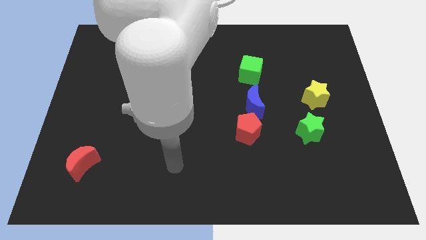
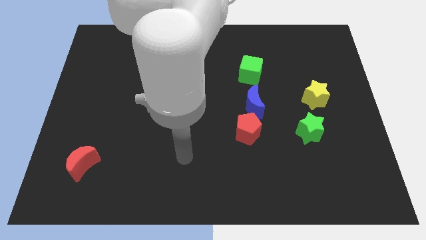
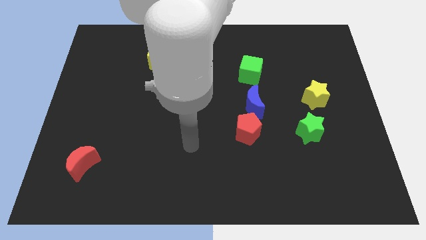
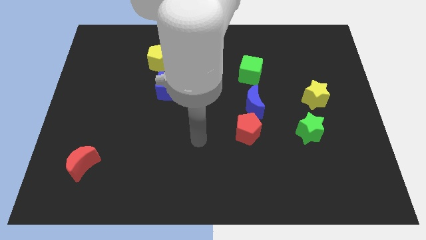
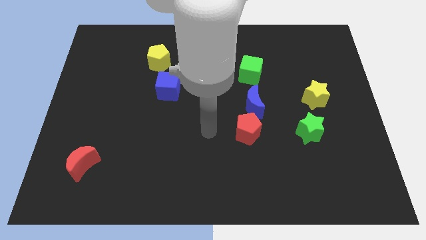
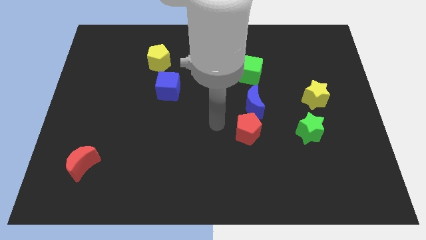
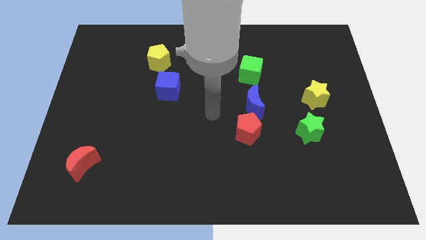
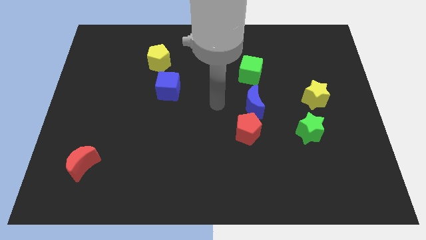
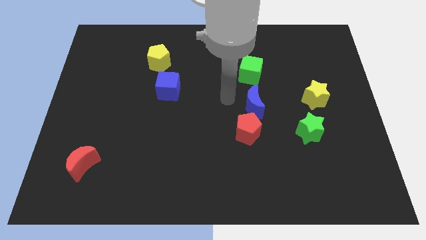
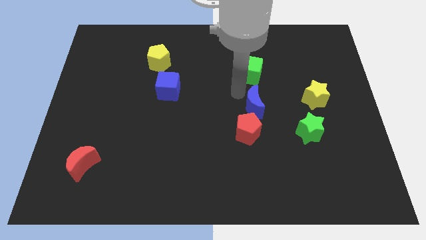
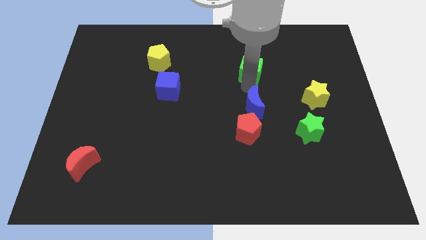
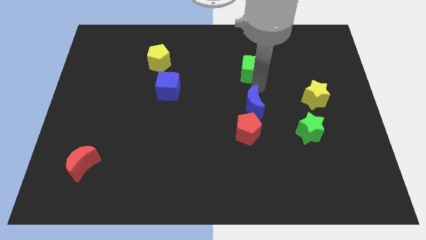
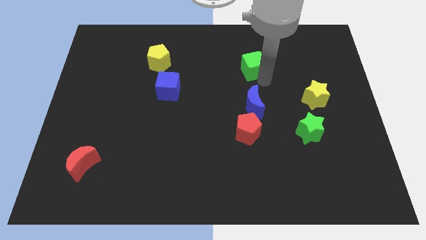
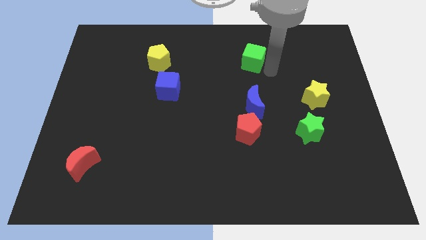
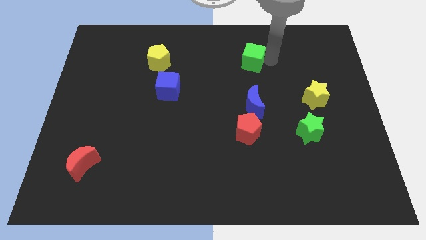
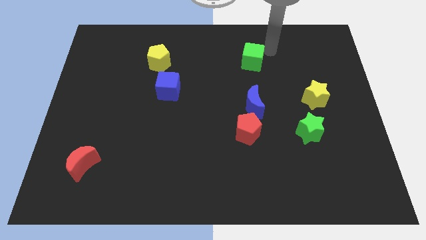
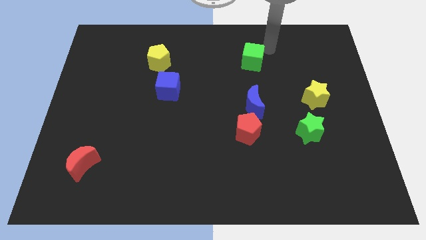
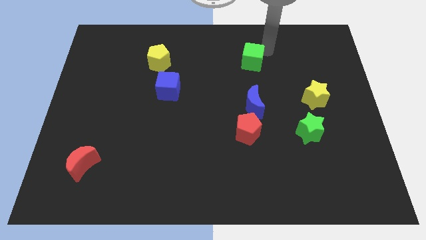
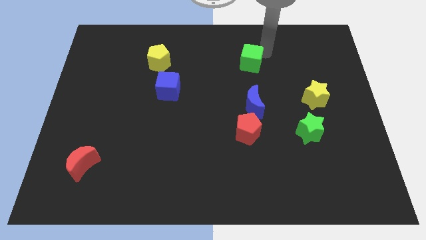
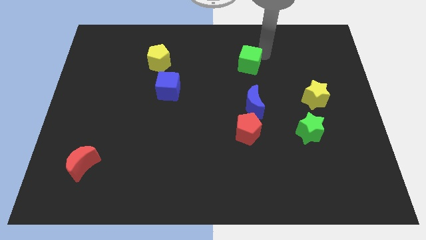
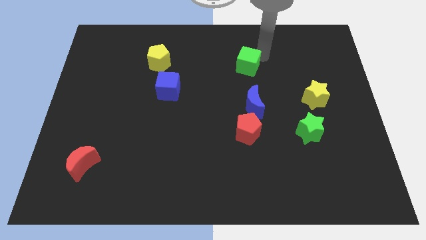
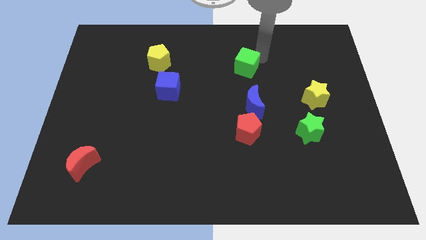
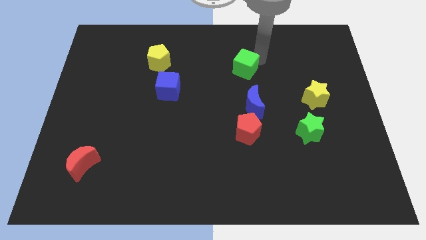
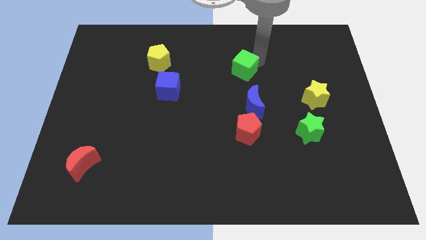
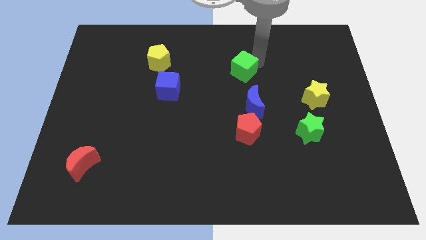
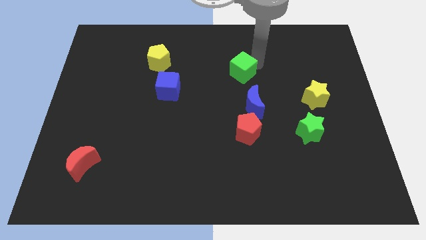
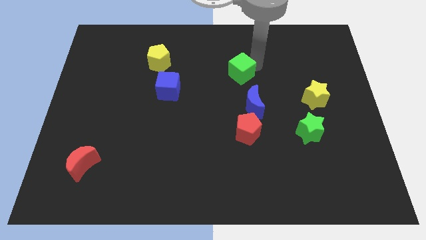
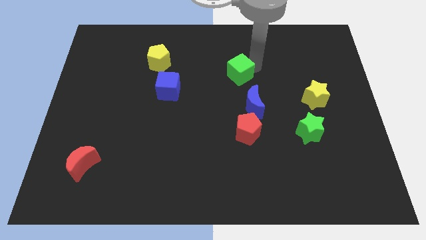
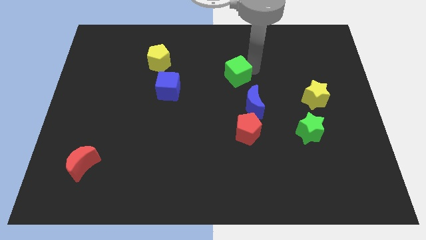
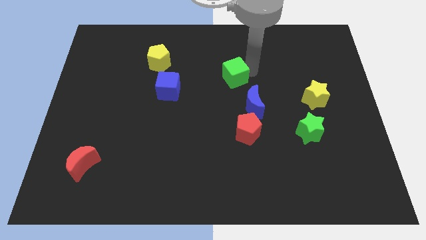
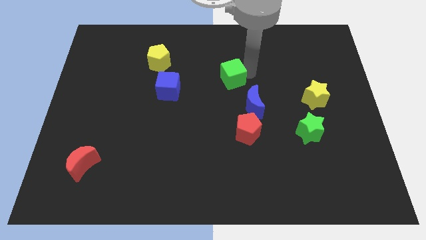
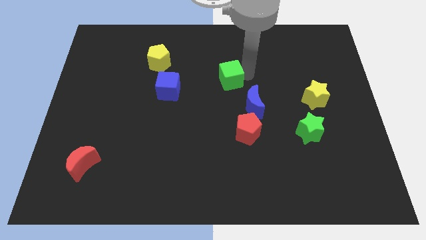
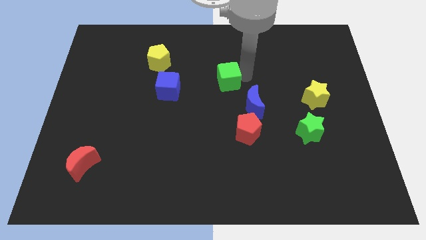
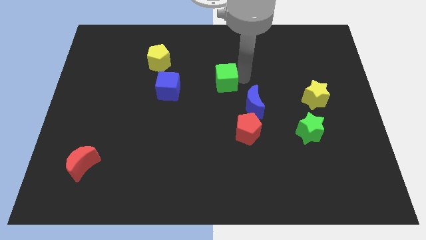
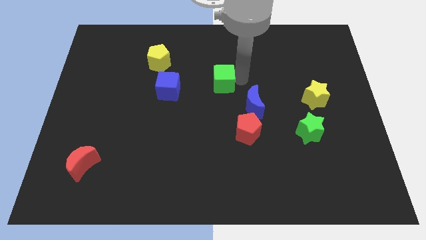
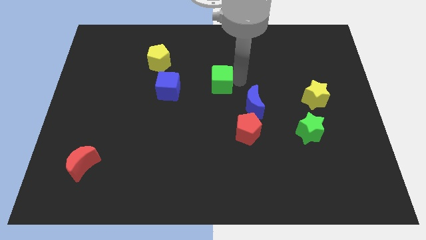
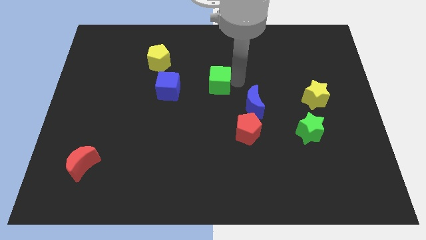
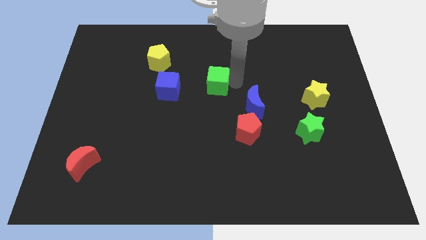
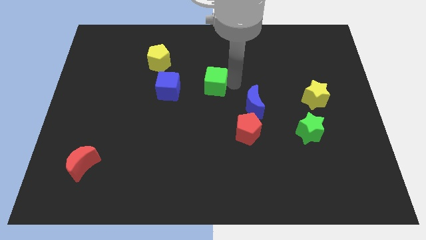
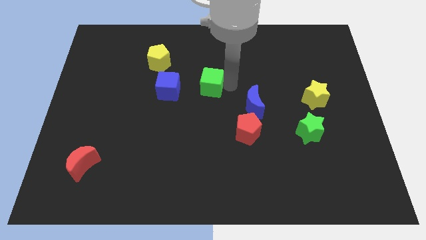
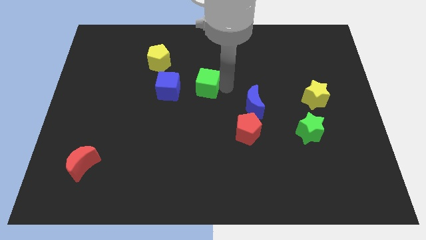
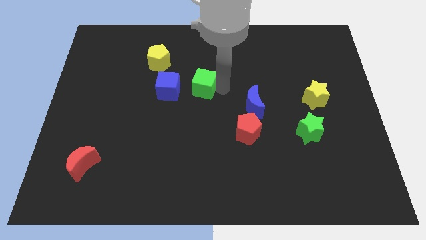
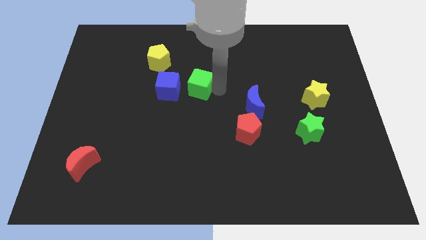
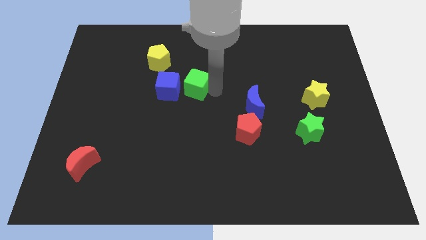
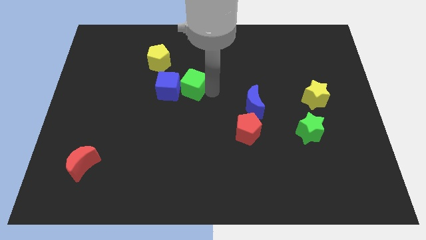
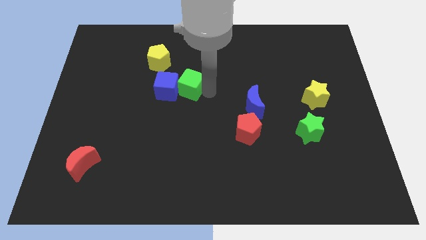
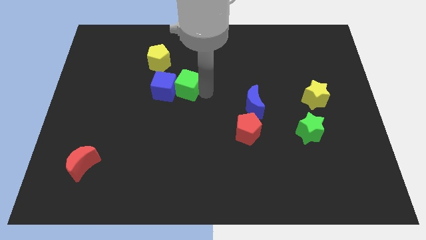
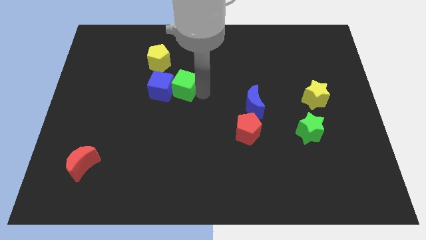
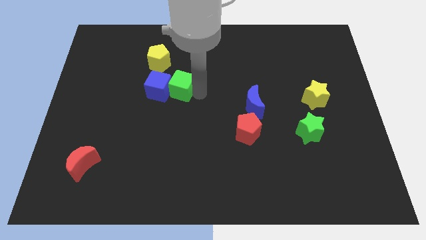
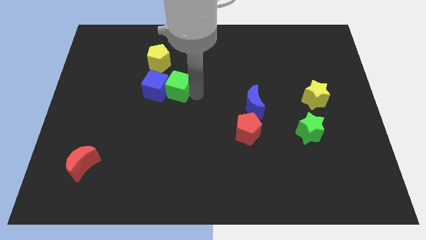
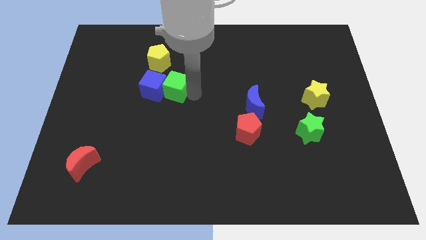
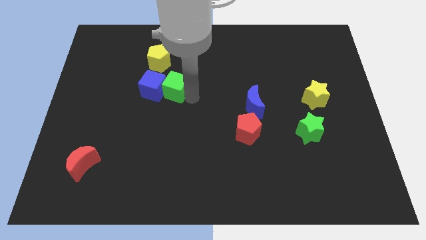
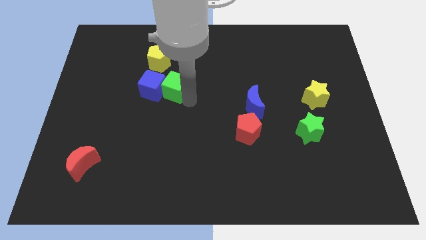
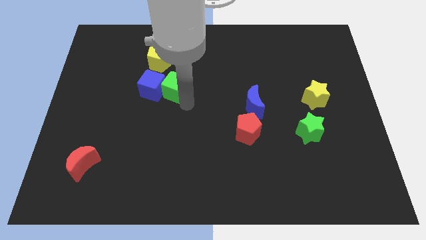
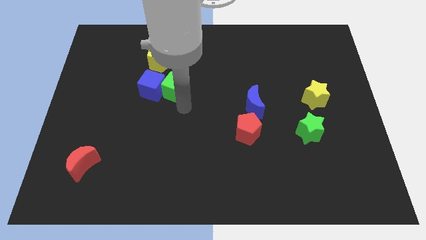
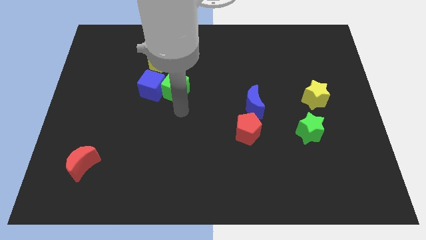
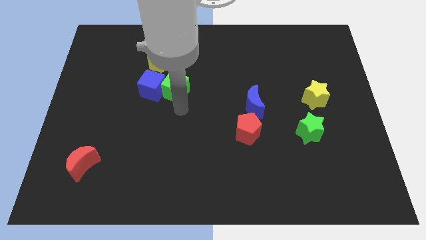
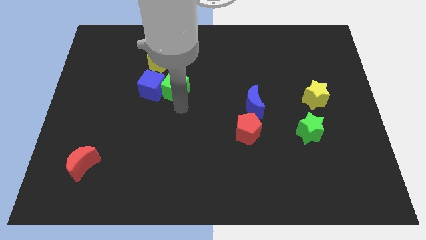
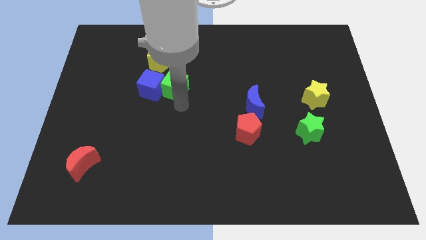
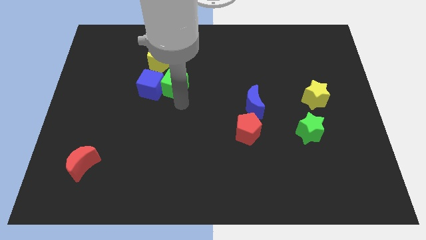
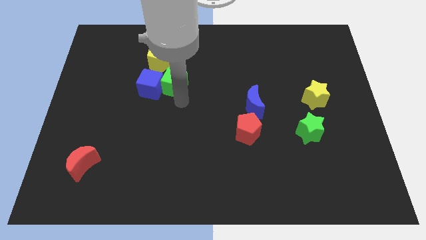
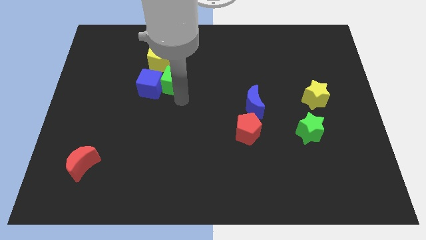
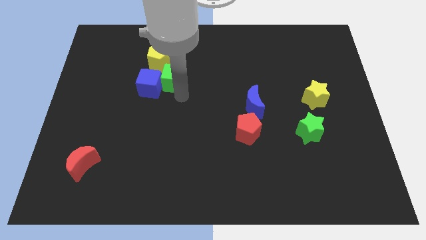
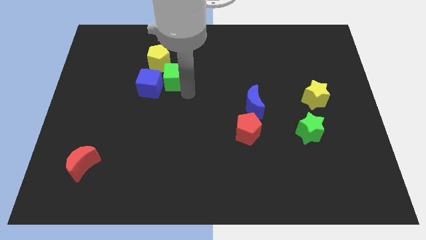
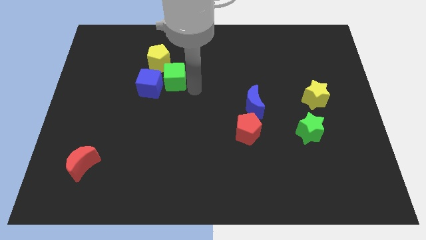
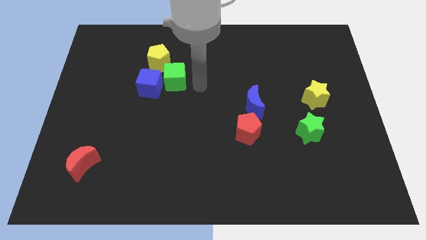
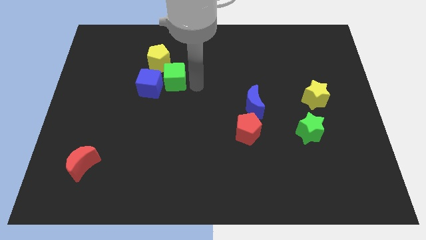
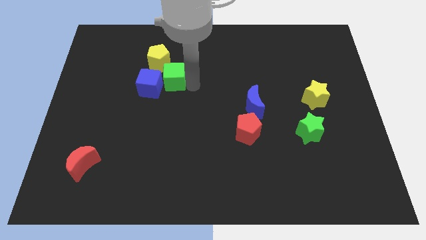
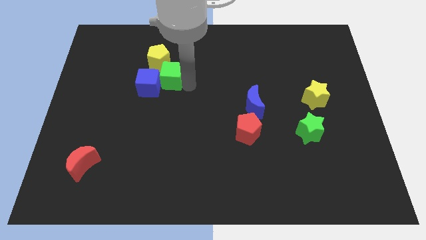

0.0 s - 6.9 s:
push the green cube left

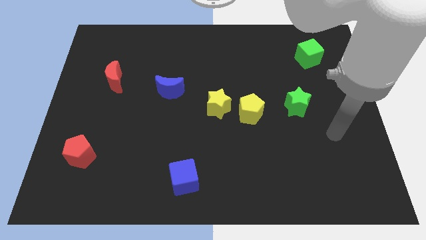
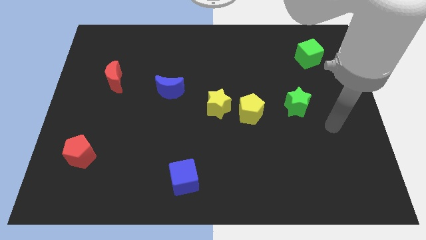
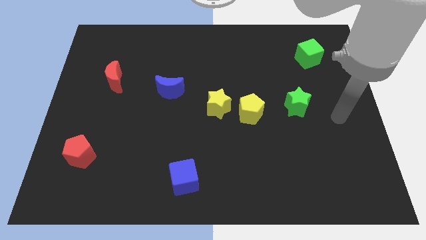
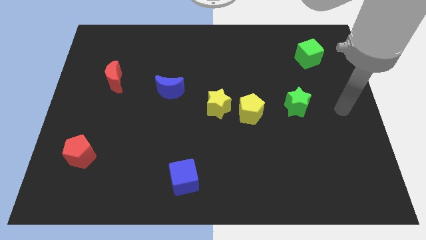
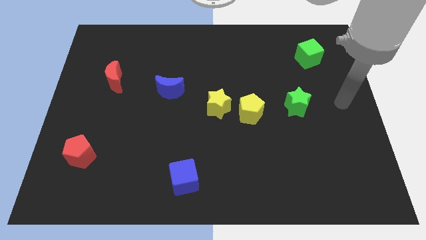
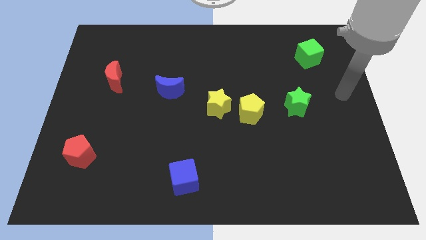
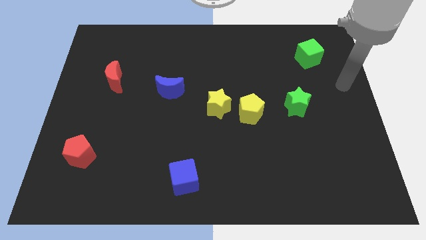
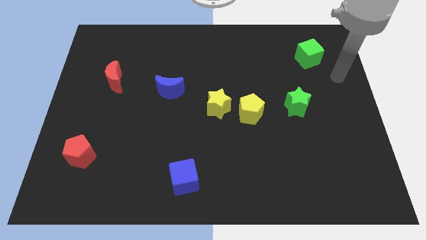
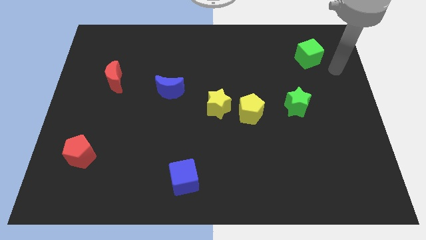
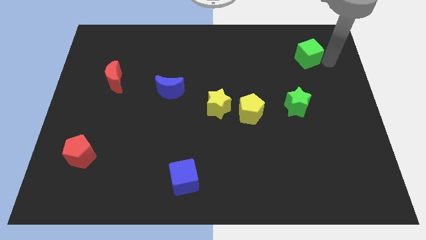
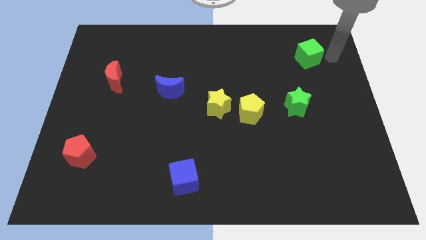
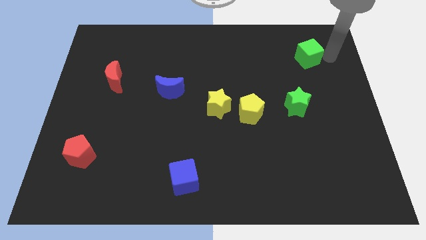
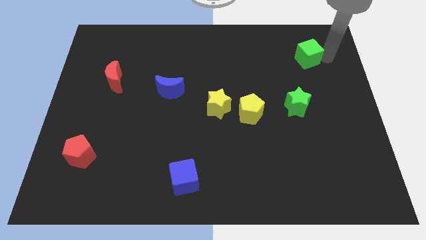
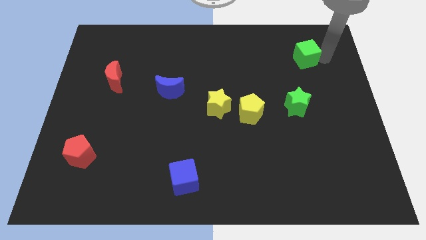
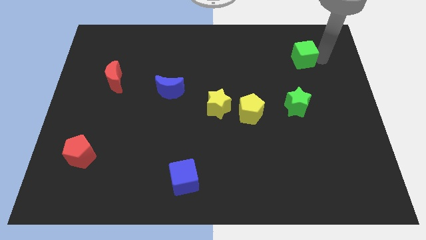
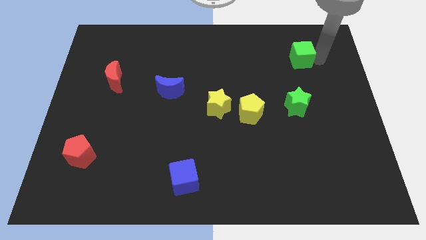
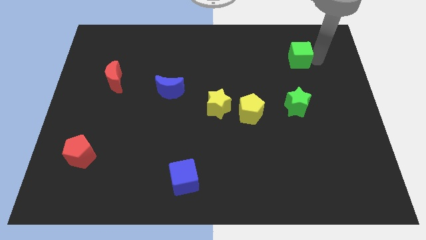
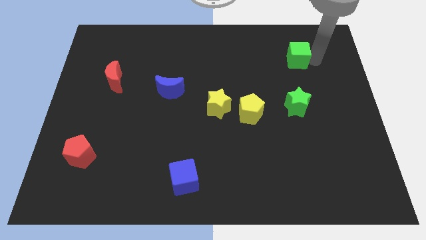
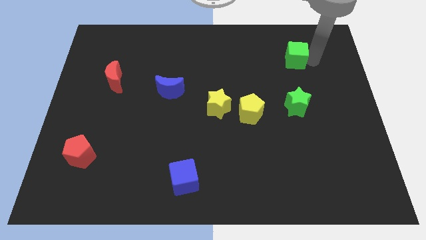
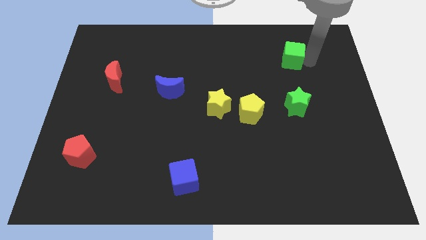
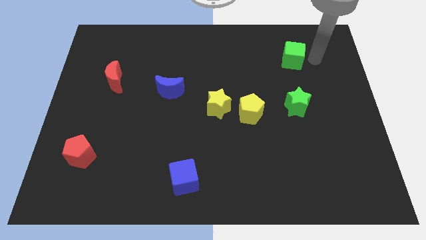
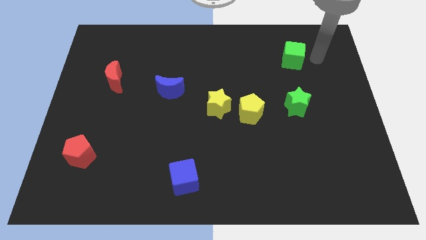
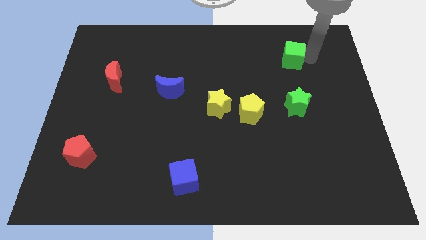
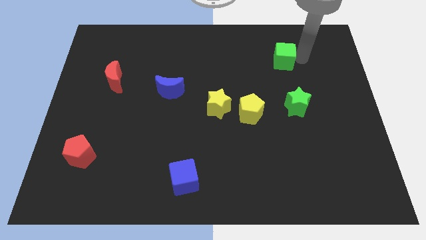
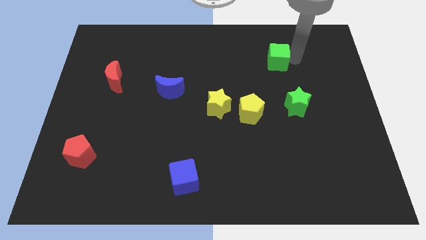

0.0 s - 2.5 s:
slide the green cube a little to the left
